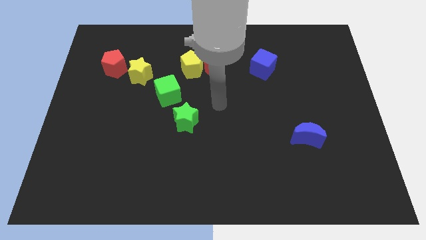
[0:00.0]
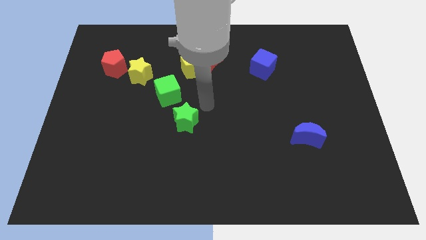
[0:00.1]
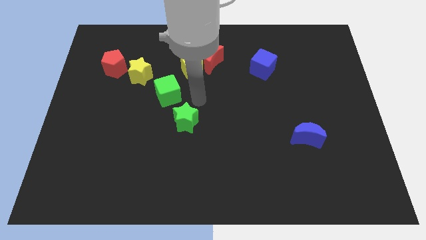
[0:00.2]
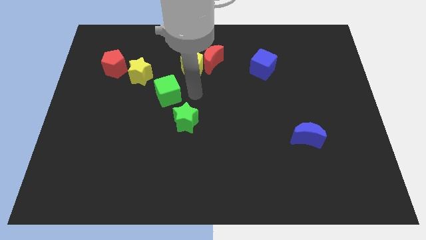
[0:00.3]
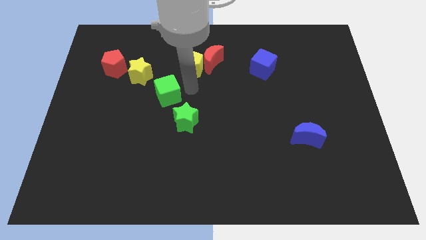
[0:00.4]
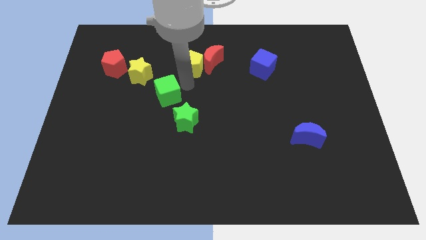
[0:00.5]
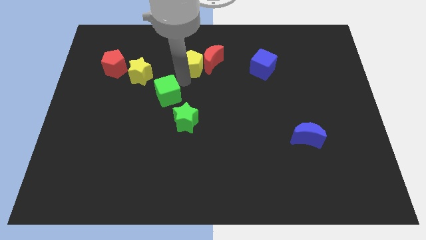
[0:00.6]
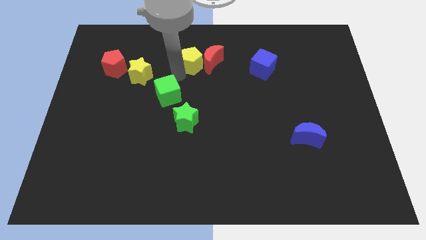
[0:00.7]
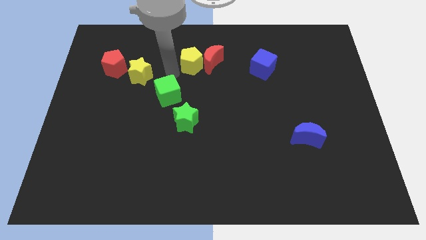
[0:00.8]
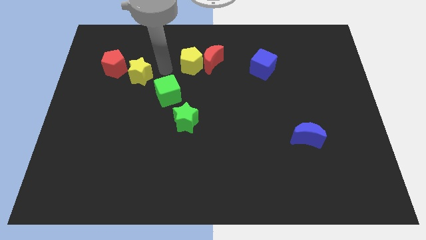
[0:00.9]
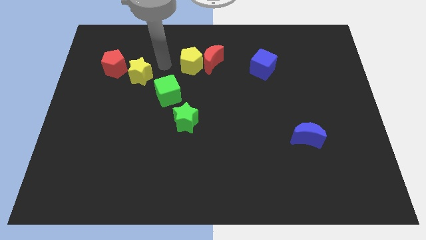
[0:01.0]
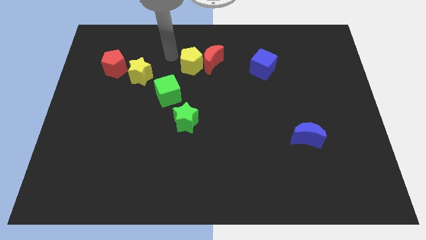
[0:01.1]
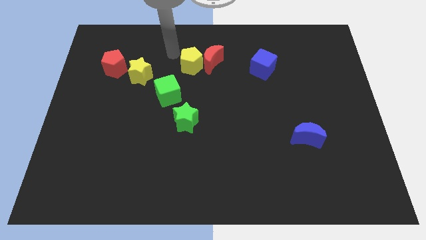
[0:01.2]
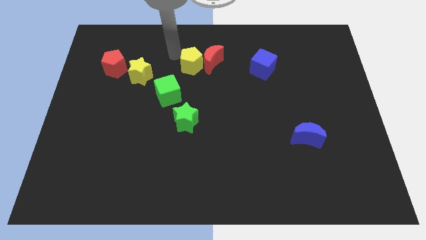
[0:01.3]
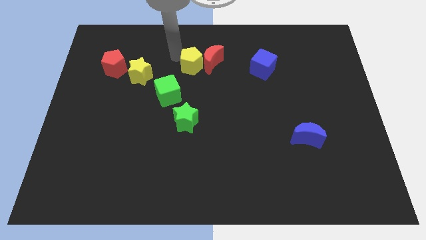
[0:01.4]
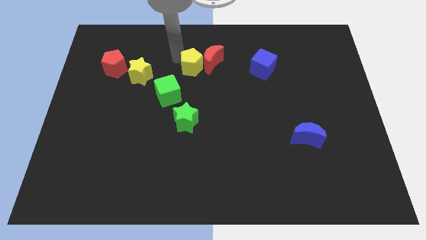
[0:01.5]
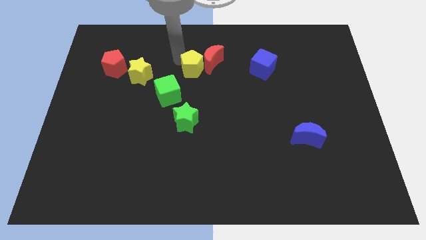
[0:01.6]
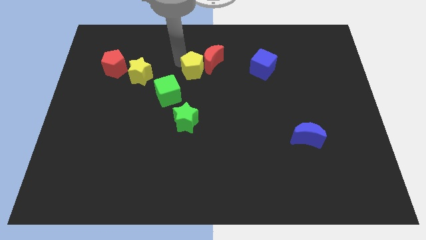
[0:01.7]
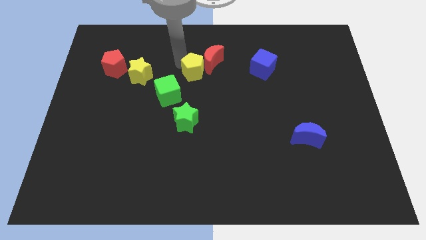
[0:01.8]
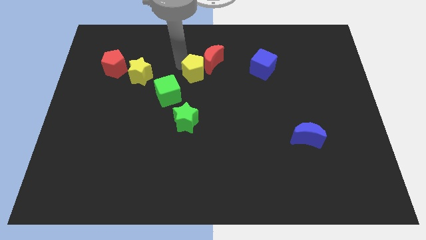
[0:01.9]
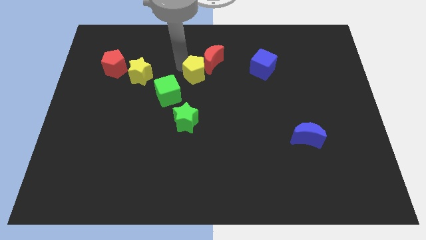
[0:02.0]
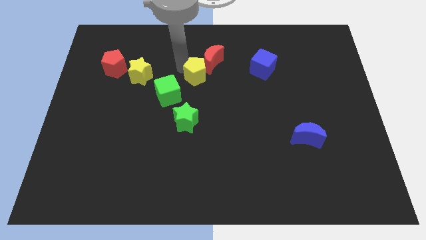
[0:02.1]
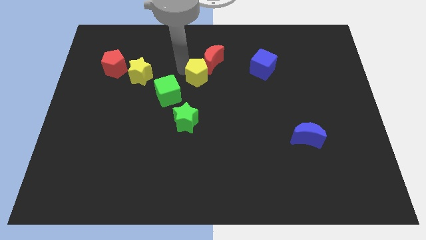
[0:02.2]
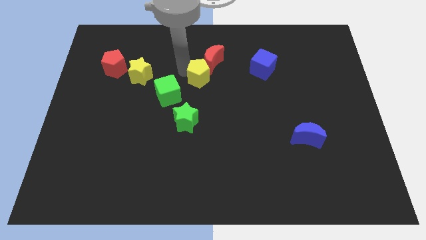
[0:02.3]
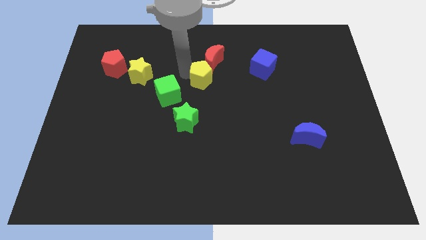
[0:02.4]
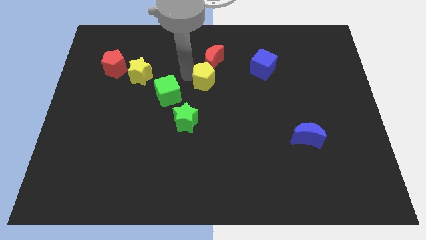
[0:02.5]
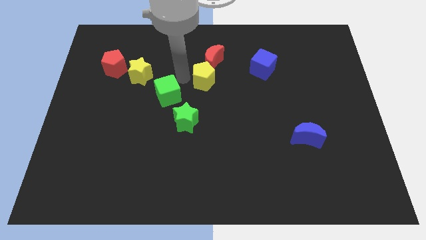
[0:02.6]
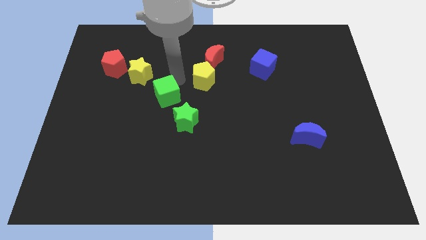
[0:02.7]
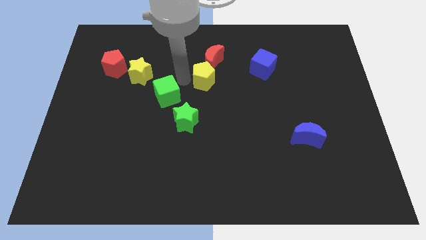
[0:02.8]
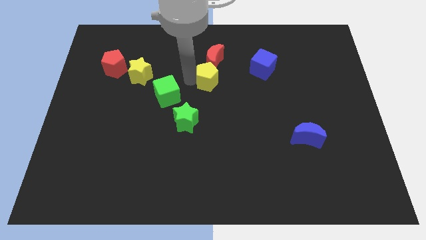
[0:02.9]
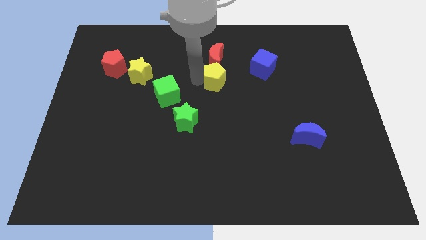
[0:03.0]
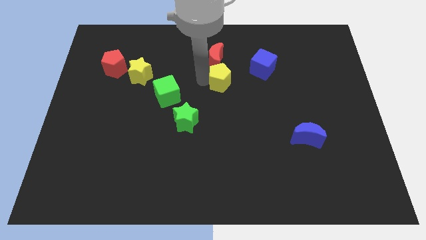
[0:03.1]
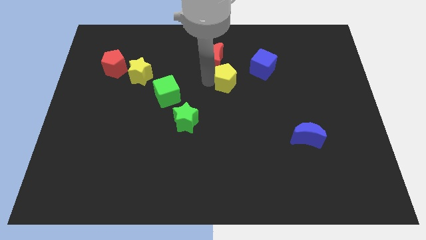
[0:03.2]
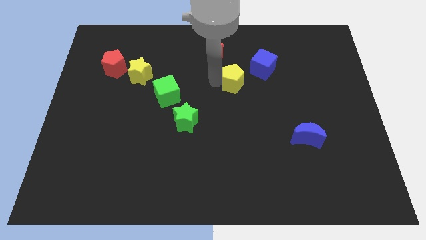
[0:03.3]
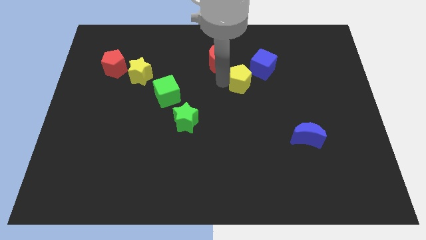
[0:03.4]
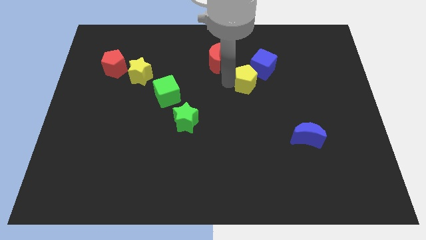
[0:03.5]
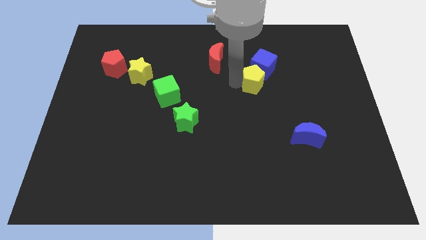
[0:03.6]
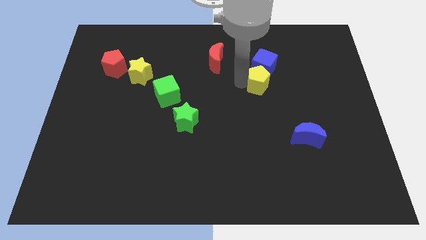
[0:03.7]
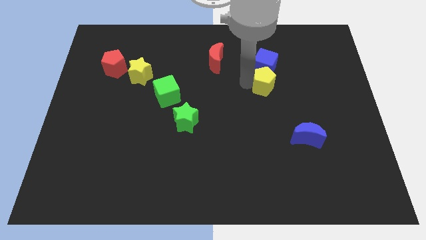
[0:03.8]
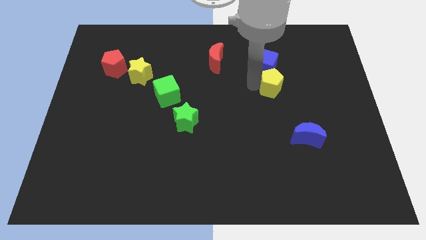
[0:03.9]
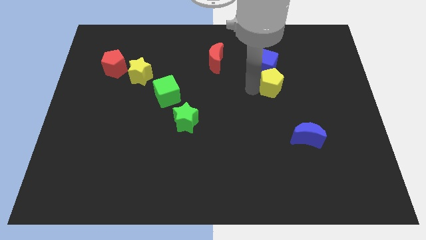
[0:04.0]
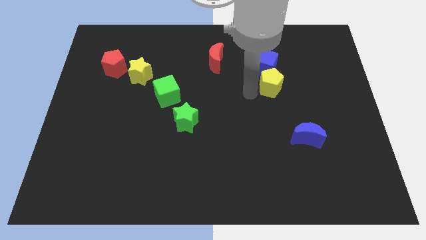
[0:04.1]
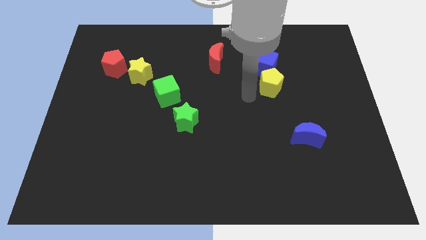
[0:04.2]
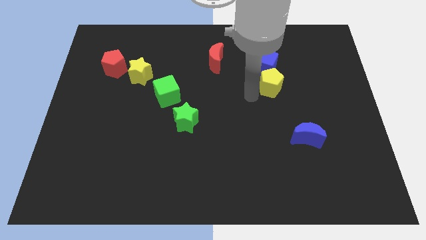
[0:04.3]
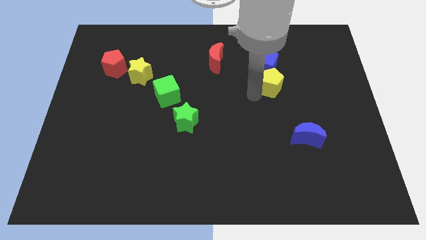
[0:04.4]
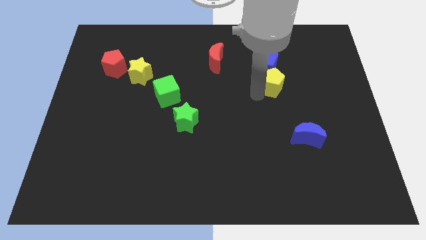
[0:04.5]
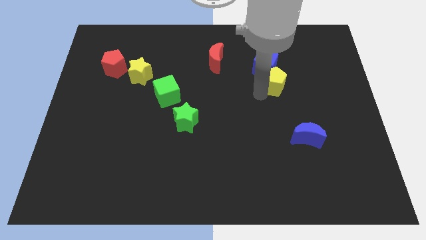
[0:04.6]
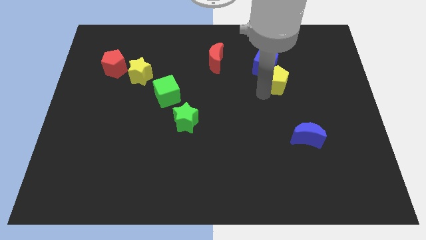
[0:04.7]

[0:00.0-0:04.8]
slide the yellow pentagon to the right

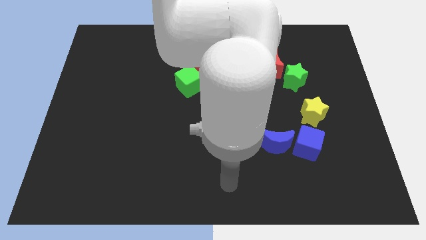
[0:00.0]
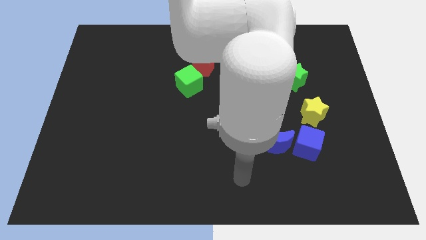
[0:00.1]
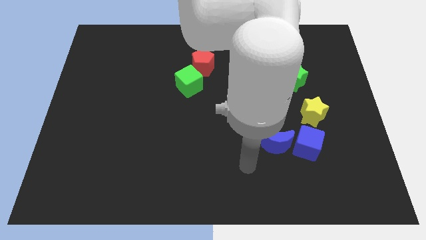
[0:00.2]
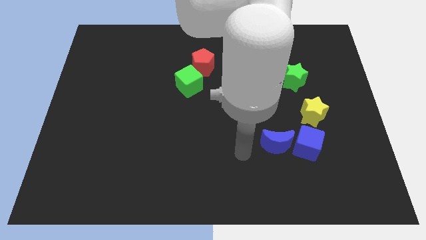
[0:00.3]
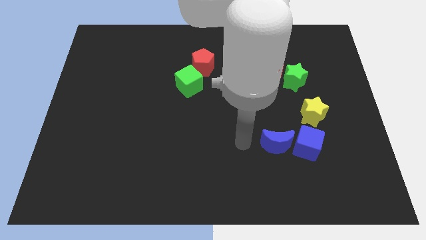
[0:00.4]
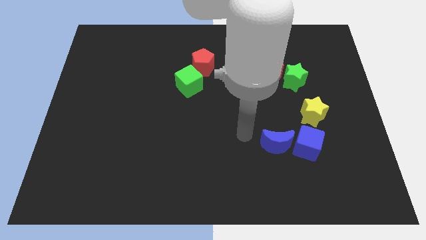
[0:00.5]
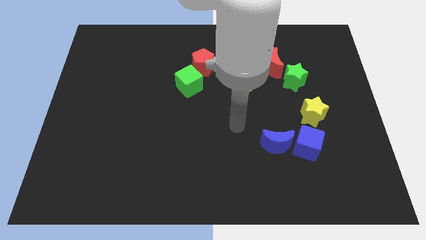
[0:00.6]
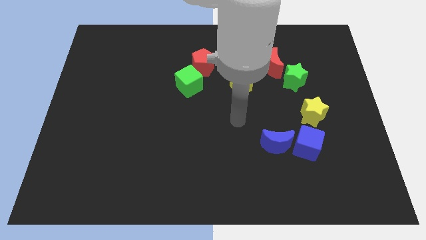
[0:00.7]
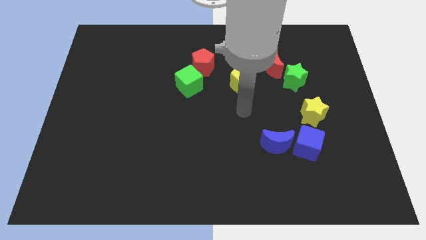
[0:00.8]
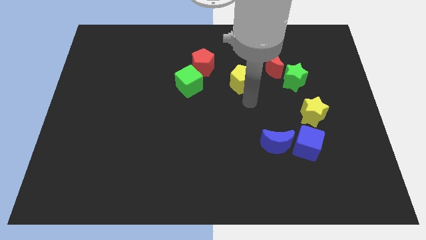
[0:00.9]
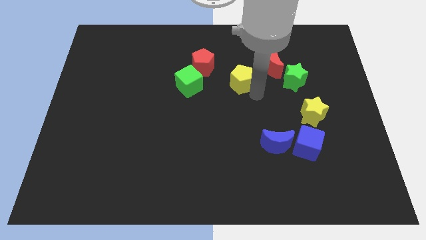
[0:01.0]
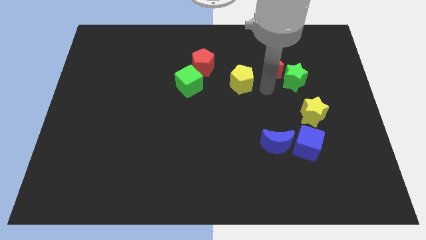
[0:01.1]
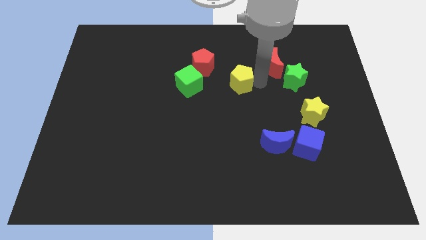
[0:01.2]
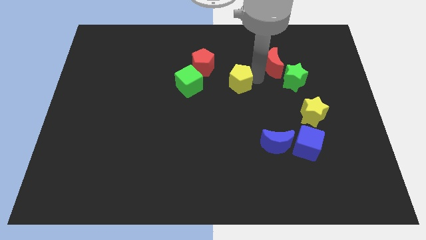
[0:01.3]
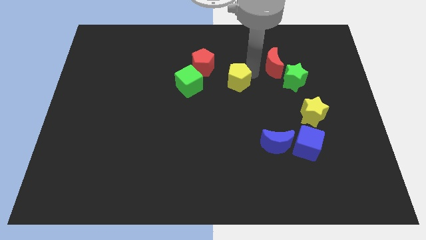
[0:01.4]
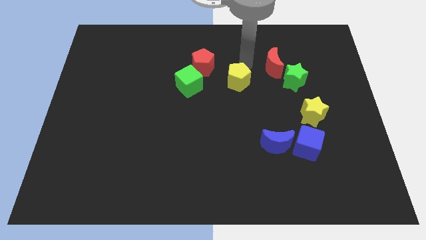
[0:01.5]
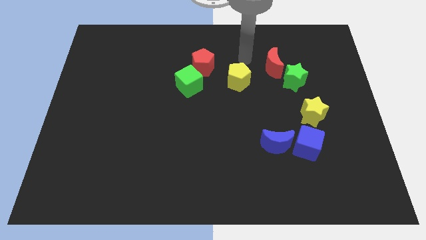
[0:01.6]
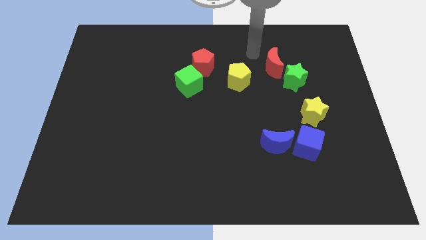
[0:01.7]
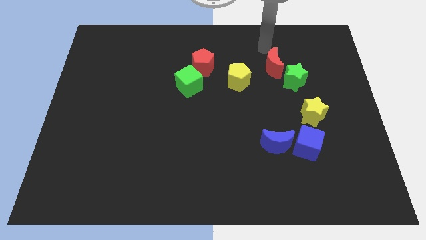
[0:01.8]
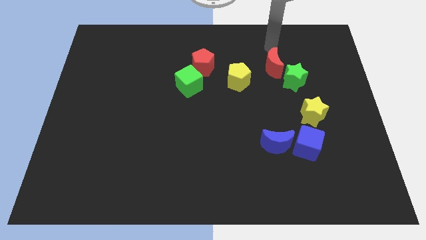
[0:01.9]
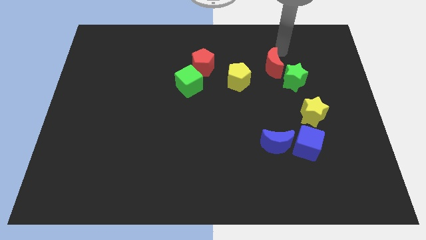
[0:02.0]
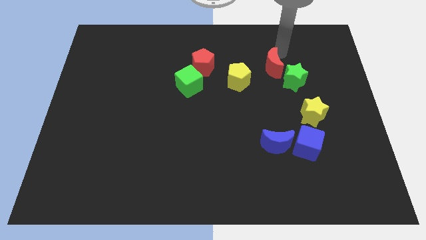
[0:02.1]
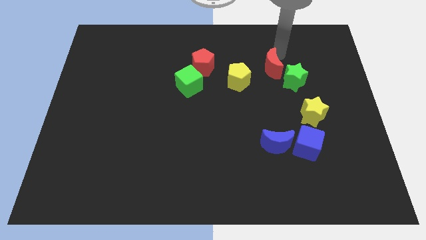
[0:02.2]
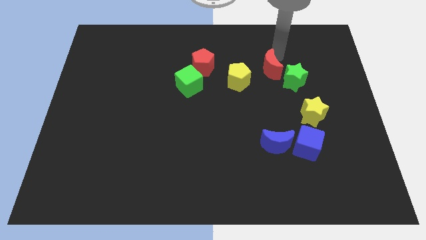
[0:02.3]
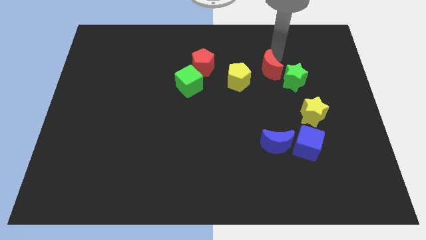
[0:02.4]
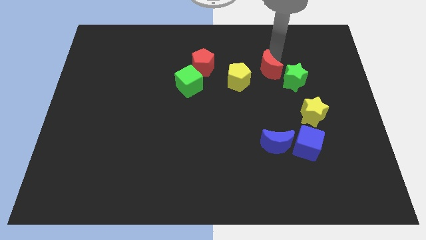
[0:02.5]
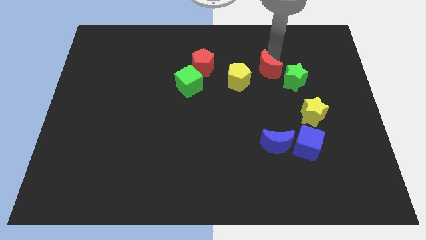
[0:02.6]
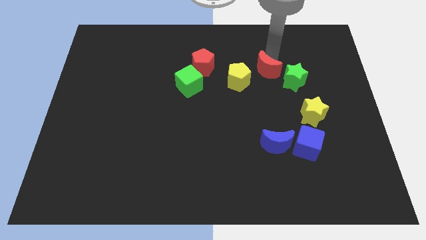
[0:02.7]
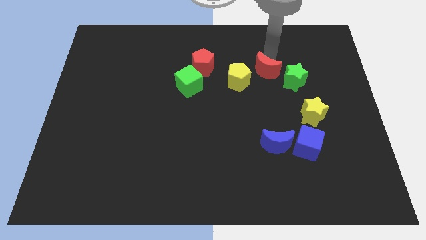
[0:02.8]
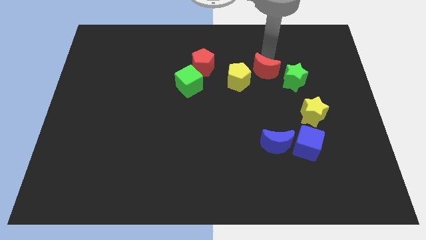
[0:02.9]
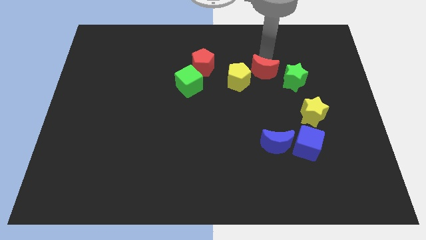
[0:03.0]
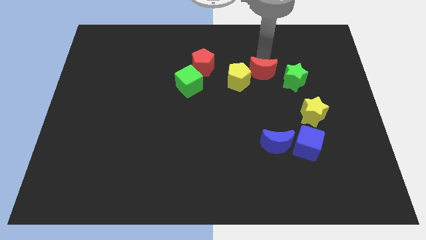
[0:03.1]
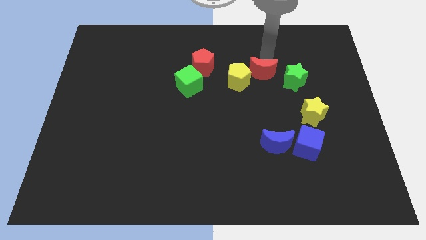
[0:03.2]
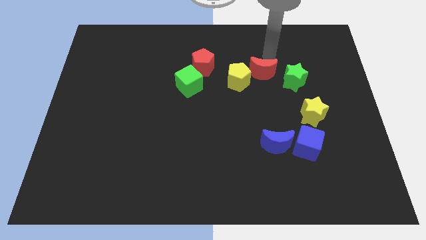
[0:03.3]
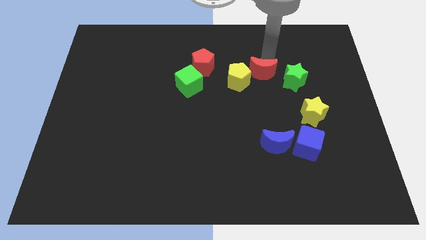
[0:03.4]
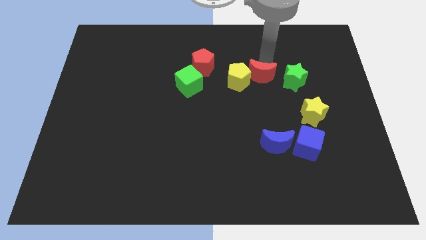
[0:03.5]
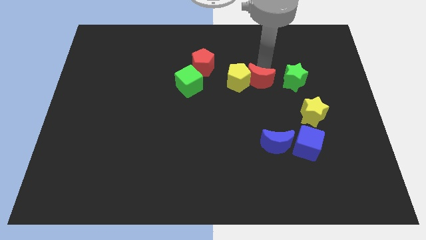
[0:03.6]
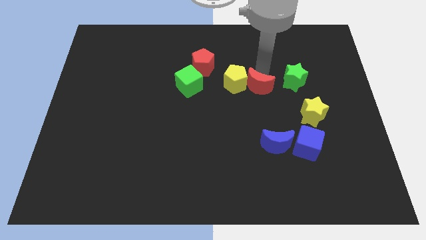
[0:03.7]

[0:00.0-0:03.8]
push the red moon down and to the left diagonally somewhat
